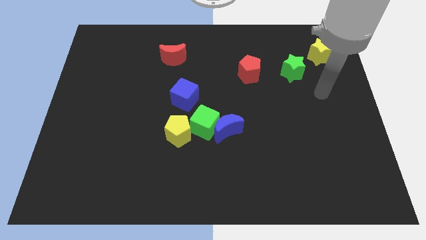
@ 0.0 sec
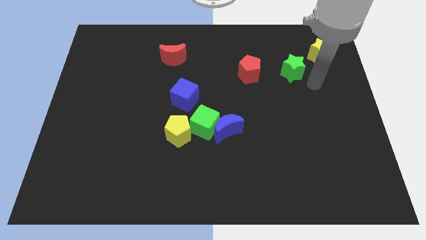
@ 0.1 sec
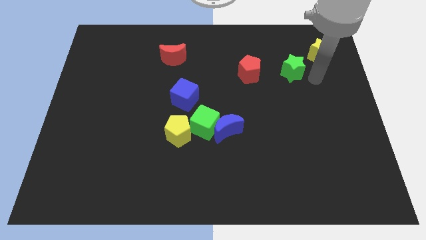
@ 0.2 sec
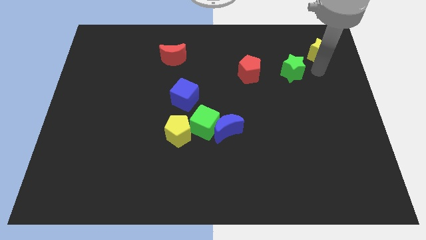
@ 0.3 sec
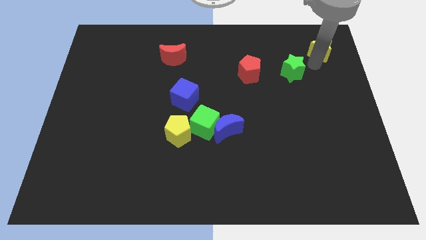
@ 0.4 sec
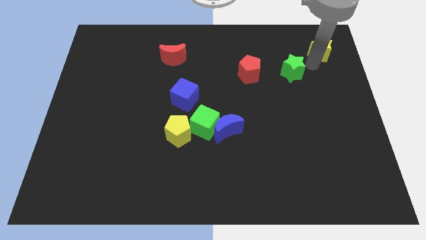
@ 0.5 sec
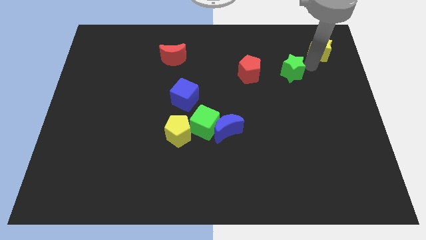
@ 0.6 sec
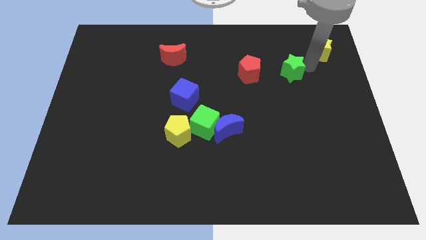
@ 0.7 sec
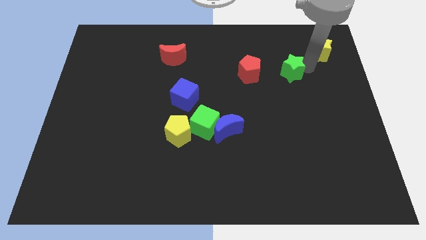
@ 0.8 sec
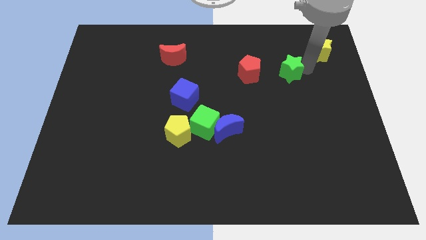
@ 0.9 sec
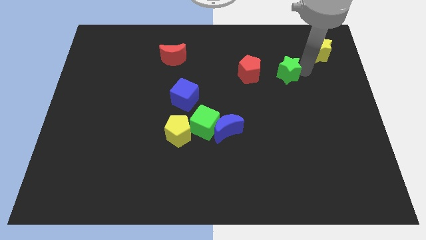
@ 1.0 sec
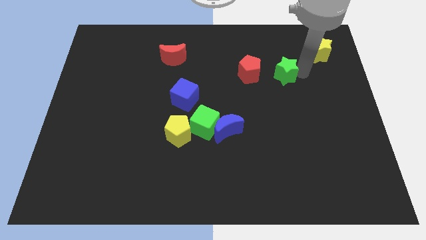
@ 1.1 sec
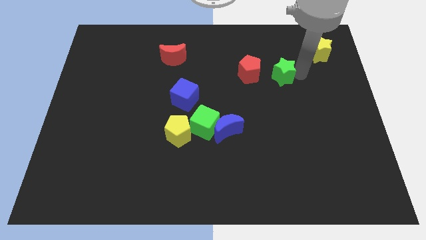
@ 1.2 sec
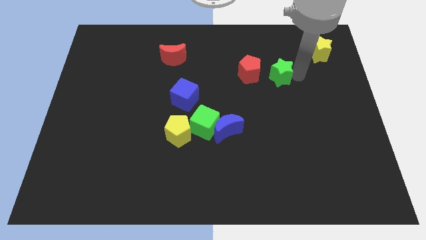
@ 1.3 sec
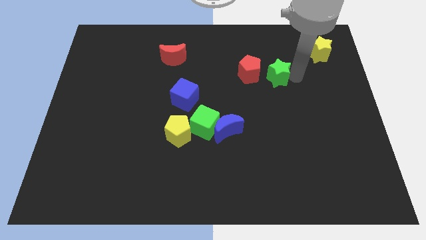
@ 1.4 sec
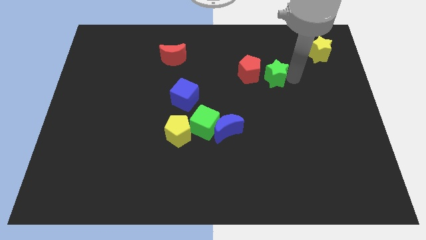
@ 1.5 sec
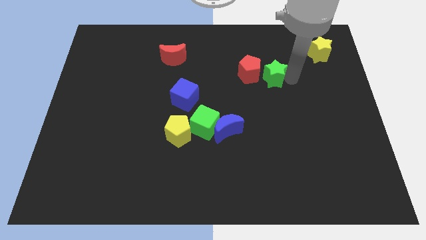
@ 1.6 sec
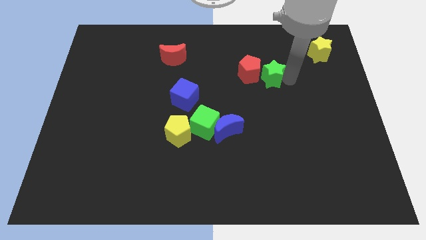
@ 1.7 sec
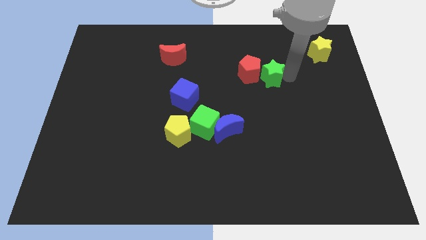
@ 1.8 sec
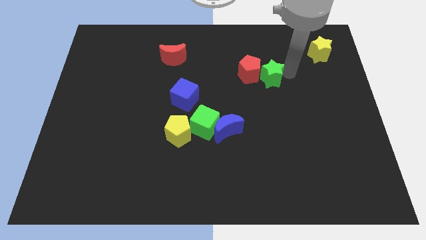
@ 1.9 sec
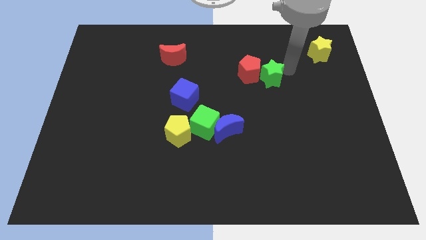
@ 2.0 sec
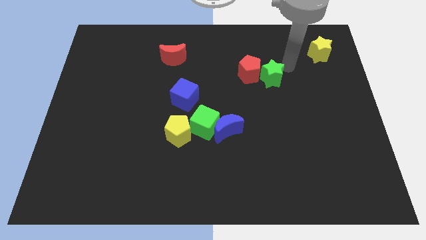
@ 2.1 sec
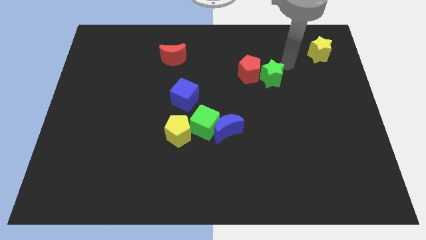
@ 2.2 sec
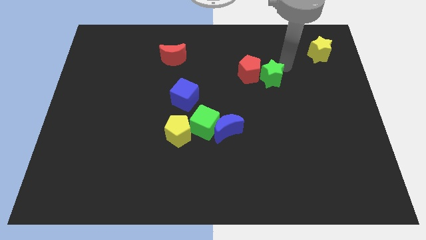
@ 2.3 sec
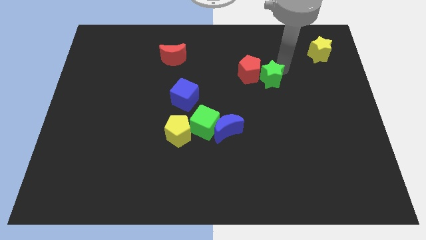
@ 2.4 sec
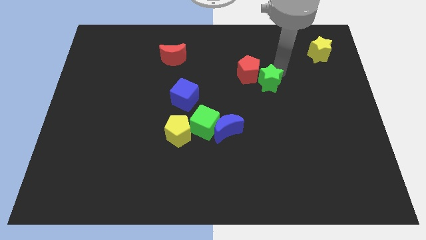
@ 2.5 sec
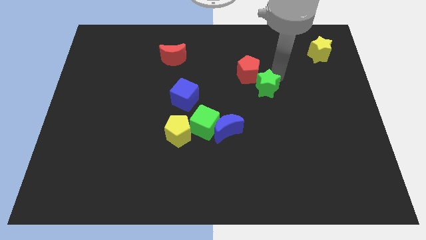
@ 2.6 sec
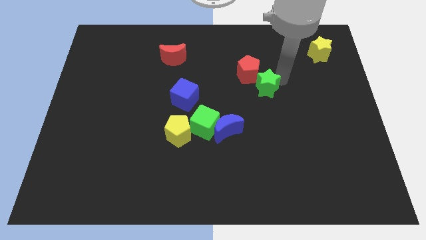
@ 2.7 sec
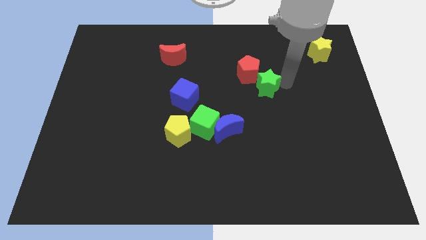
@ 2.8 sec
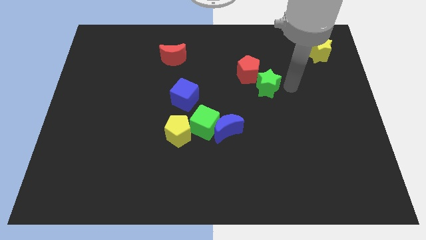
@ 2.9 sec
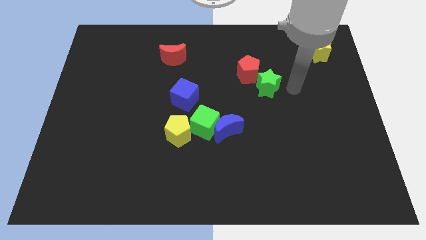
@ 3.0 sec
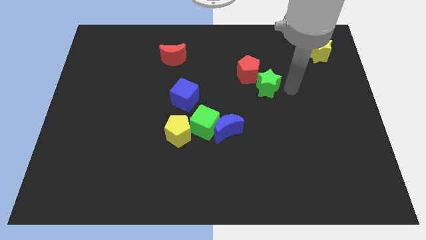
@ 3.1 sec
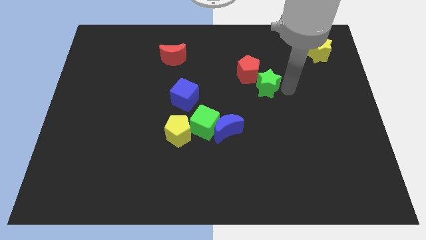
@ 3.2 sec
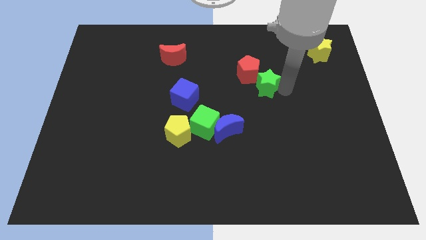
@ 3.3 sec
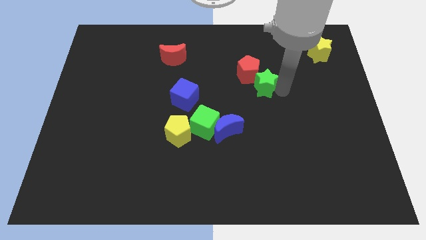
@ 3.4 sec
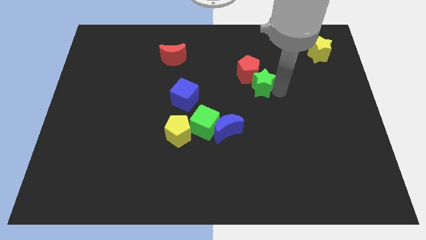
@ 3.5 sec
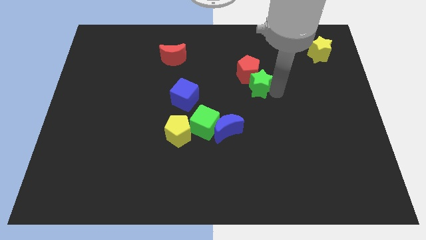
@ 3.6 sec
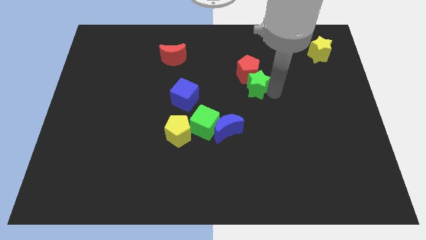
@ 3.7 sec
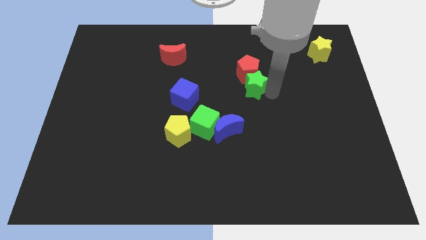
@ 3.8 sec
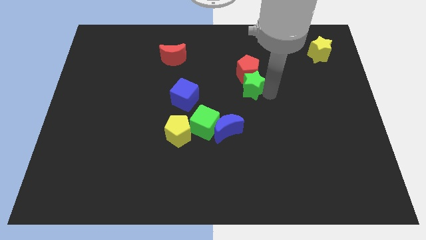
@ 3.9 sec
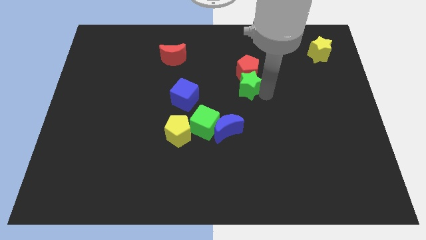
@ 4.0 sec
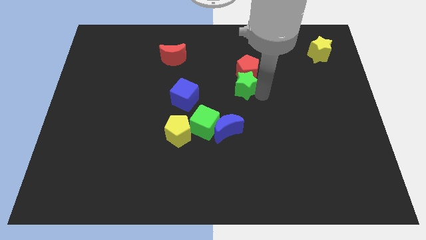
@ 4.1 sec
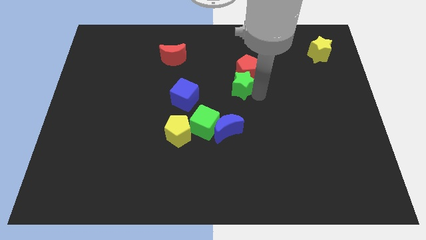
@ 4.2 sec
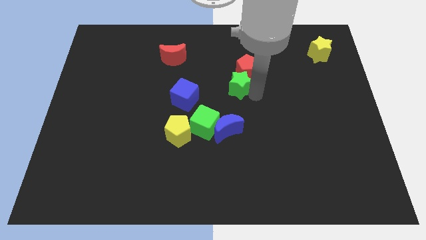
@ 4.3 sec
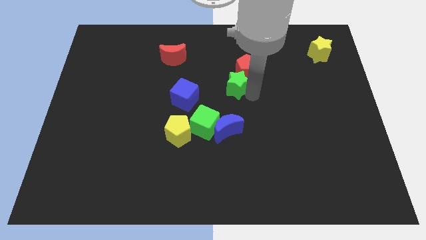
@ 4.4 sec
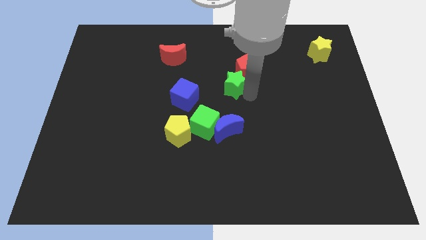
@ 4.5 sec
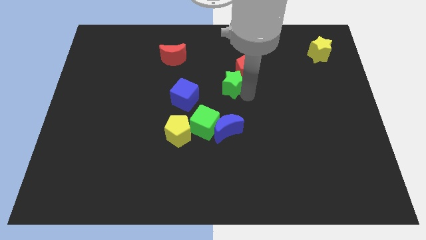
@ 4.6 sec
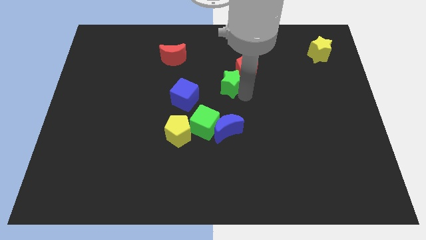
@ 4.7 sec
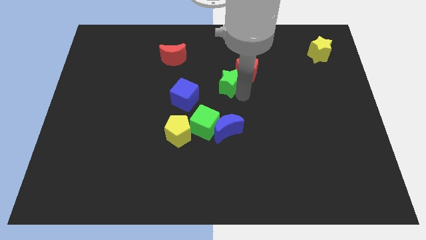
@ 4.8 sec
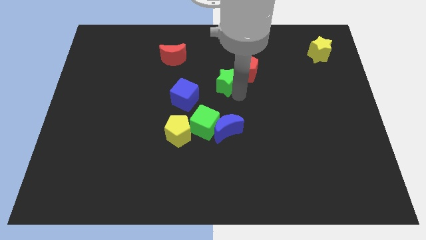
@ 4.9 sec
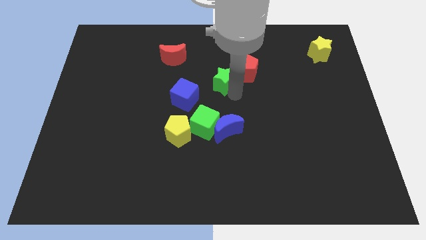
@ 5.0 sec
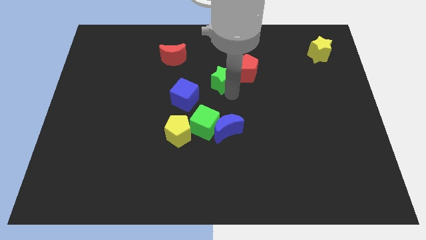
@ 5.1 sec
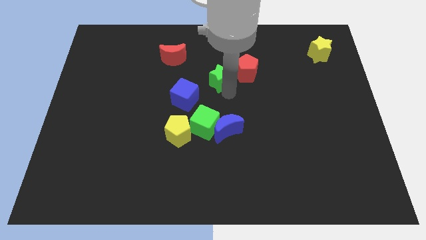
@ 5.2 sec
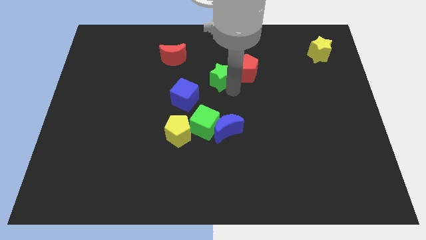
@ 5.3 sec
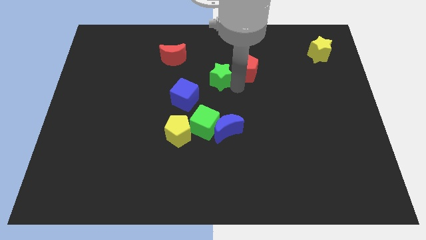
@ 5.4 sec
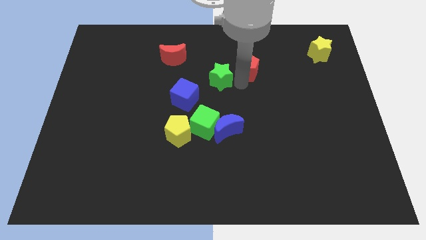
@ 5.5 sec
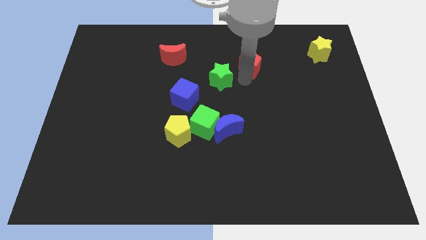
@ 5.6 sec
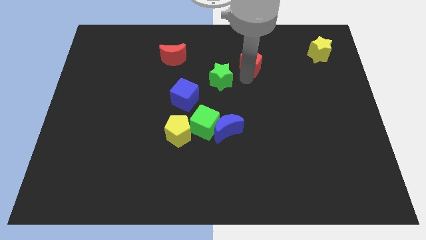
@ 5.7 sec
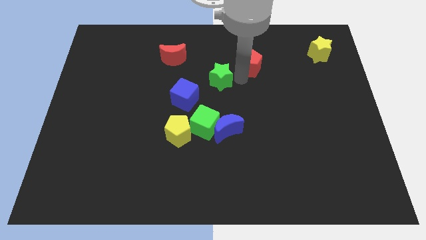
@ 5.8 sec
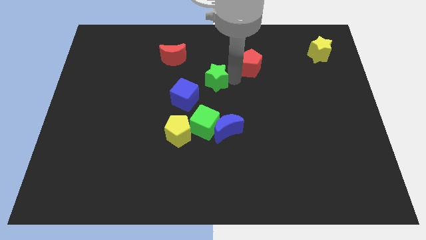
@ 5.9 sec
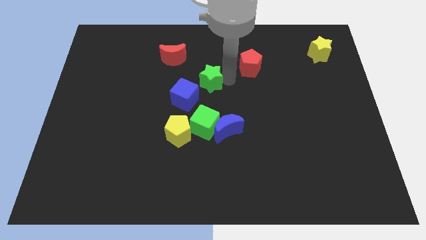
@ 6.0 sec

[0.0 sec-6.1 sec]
push the green star left

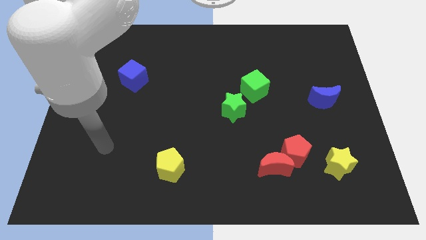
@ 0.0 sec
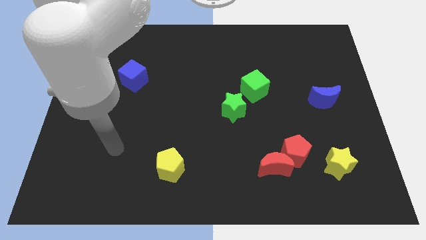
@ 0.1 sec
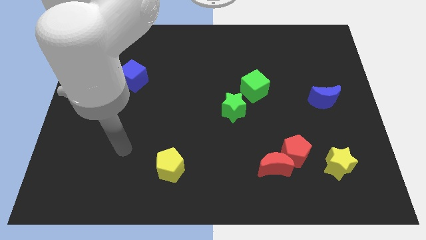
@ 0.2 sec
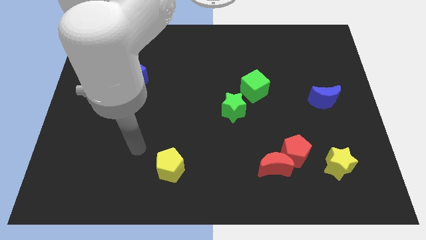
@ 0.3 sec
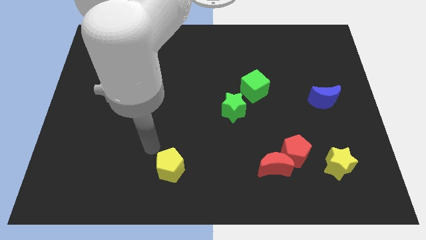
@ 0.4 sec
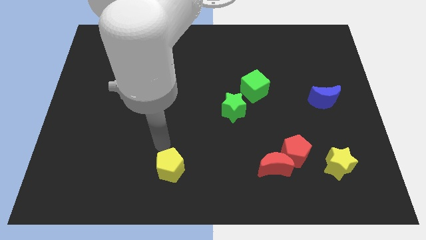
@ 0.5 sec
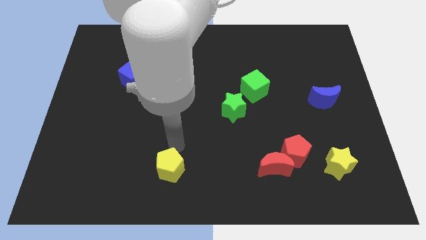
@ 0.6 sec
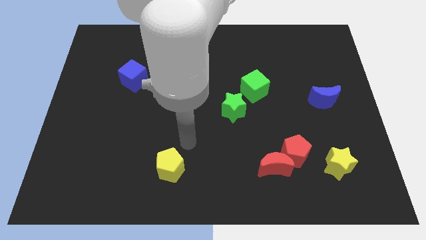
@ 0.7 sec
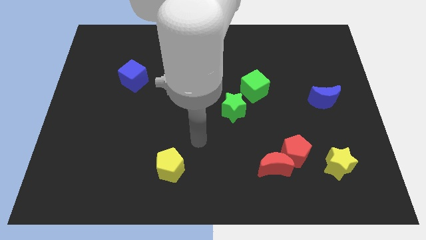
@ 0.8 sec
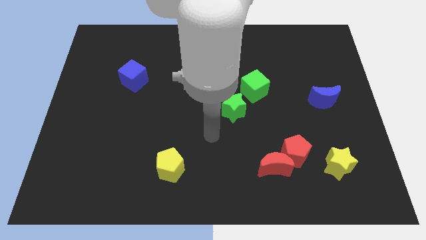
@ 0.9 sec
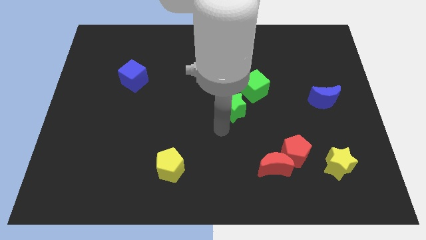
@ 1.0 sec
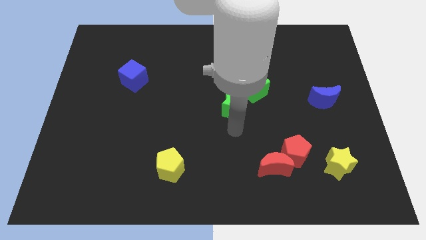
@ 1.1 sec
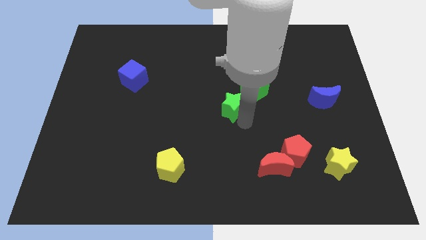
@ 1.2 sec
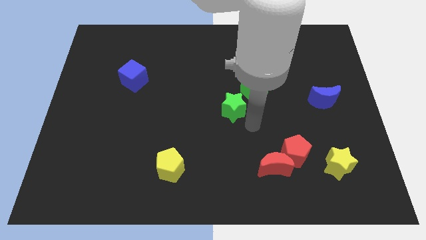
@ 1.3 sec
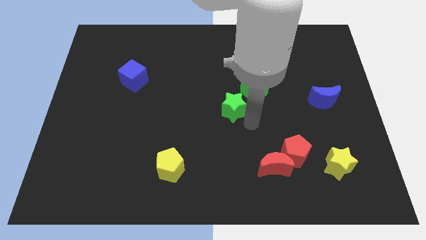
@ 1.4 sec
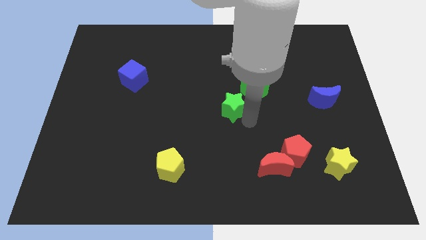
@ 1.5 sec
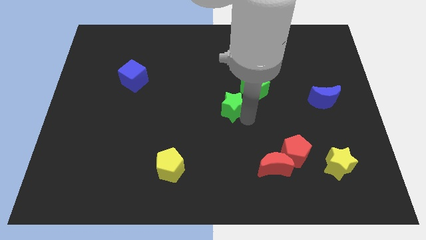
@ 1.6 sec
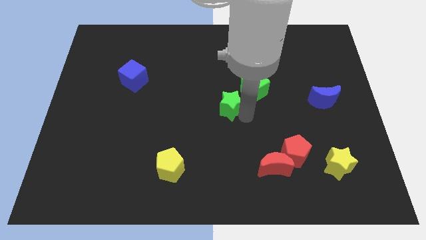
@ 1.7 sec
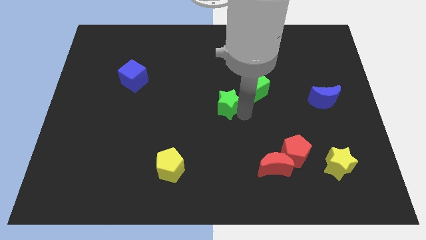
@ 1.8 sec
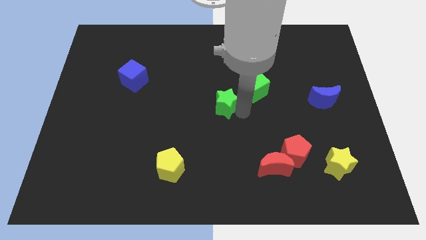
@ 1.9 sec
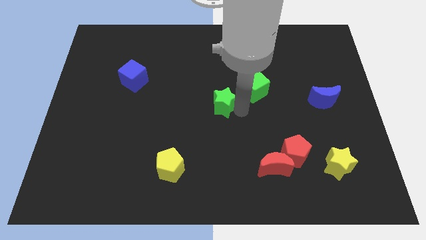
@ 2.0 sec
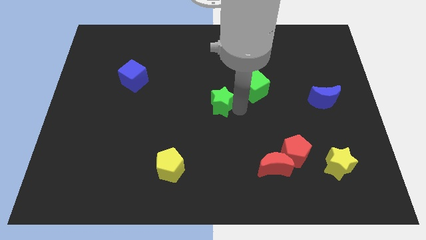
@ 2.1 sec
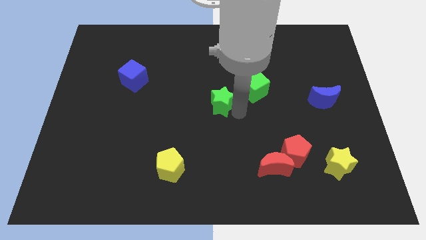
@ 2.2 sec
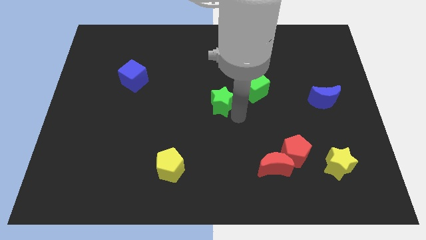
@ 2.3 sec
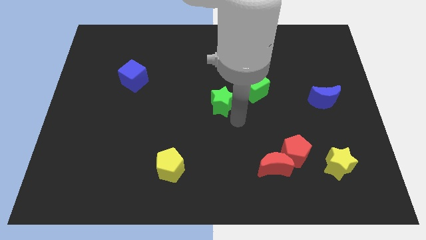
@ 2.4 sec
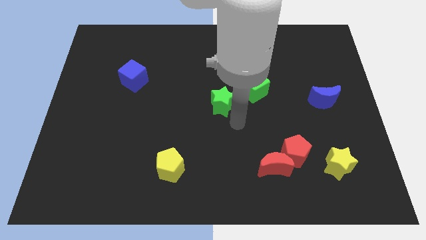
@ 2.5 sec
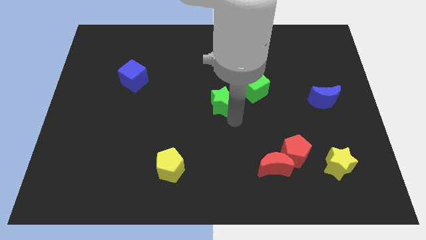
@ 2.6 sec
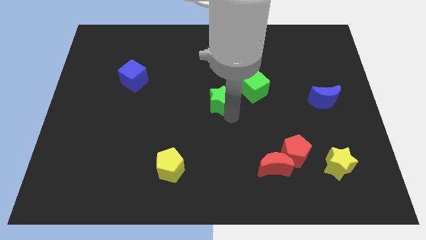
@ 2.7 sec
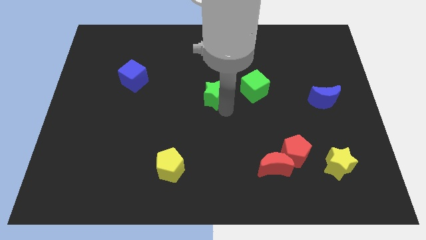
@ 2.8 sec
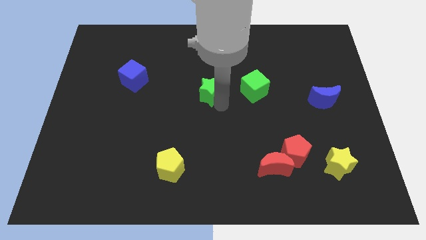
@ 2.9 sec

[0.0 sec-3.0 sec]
slightly move the green star diagonally up and to the left
